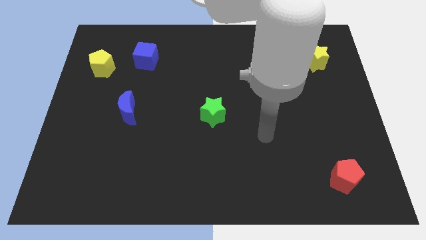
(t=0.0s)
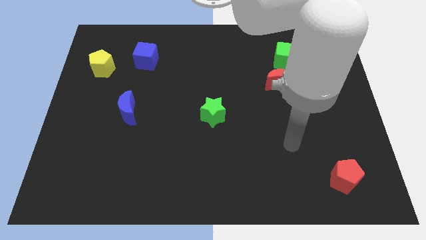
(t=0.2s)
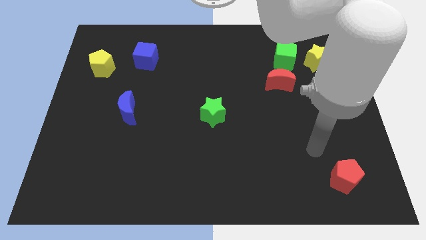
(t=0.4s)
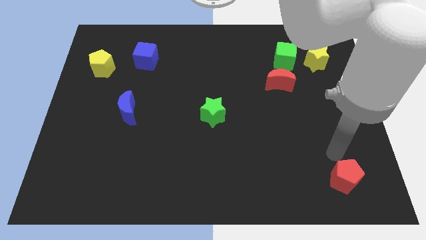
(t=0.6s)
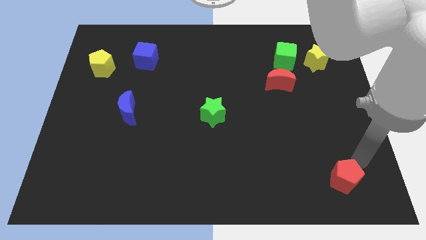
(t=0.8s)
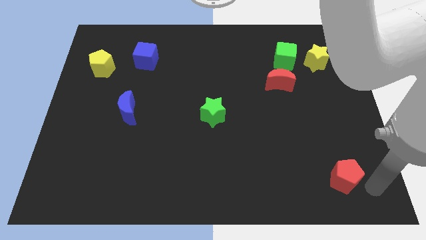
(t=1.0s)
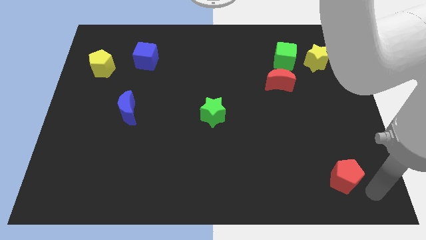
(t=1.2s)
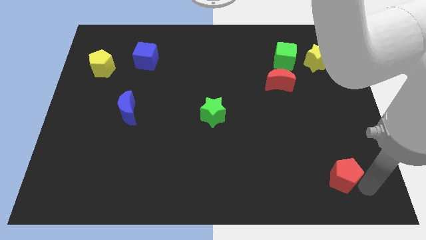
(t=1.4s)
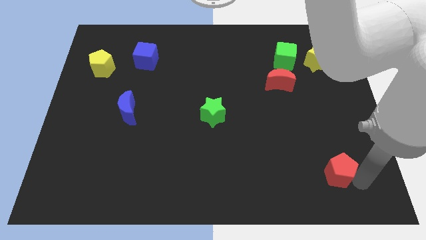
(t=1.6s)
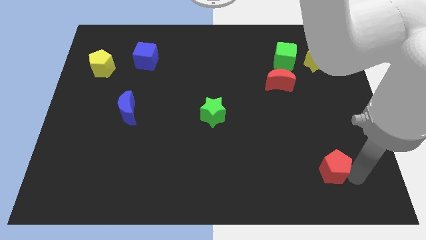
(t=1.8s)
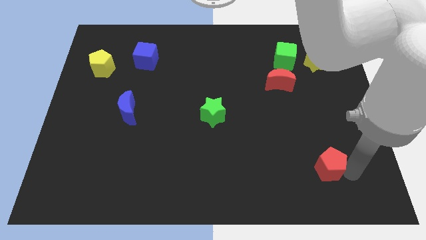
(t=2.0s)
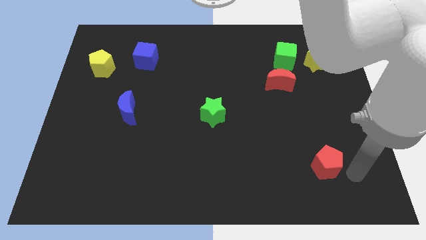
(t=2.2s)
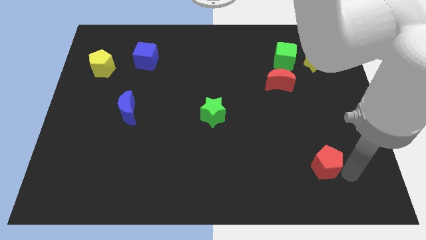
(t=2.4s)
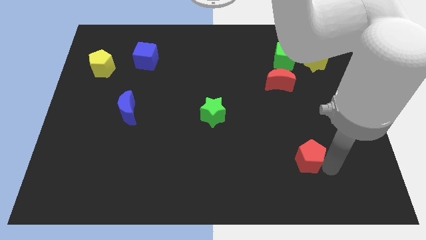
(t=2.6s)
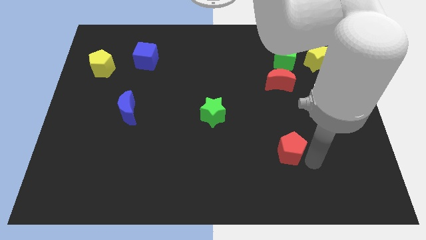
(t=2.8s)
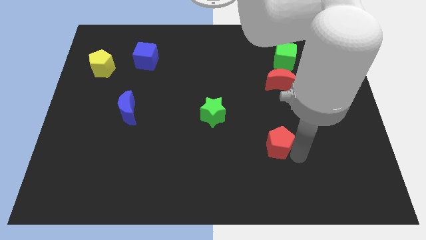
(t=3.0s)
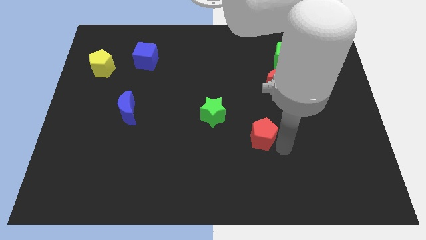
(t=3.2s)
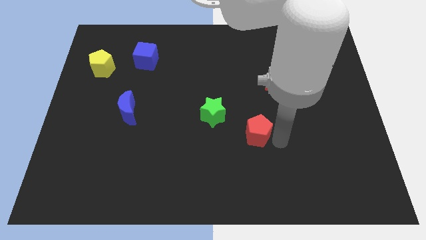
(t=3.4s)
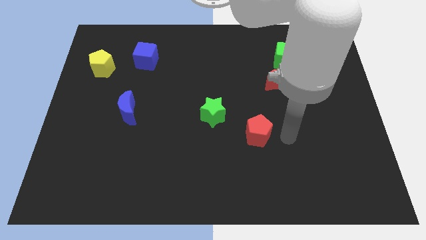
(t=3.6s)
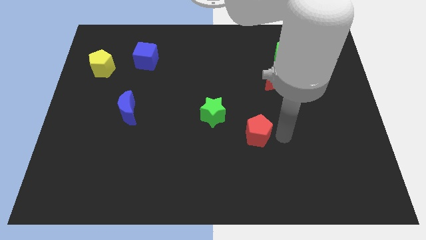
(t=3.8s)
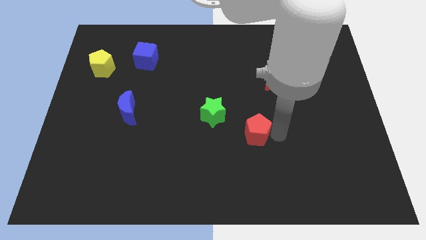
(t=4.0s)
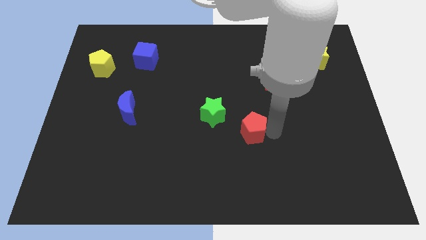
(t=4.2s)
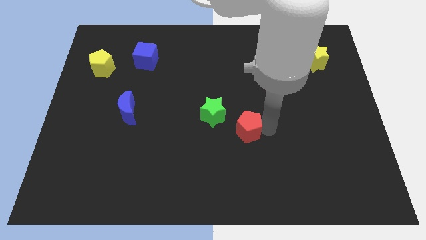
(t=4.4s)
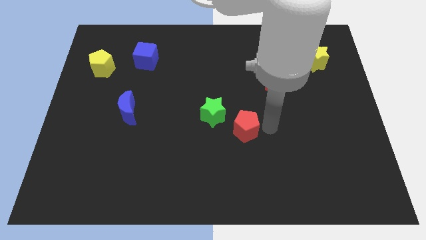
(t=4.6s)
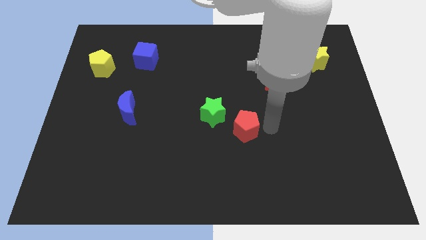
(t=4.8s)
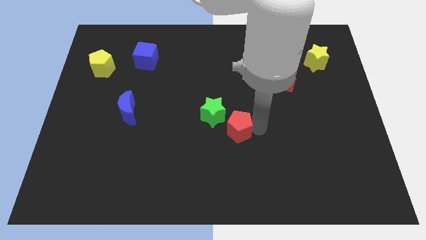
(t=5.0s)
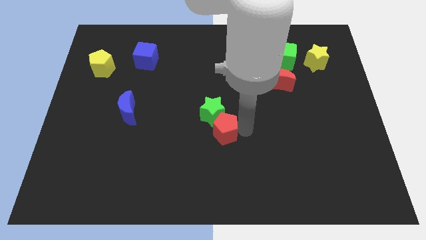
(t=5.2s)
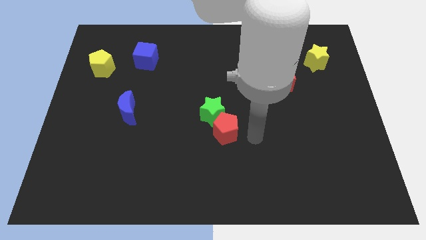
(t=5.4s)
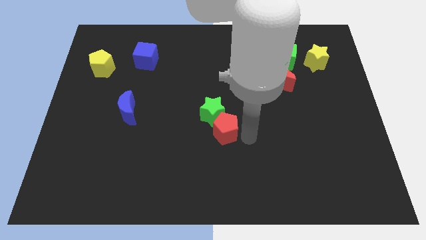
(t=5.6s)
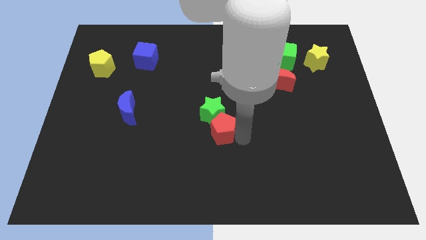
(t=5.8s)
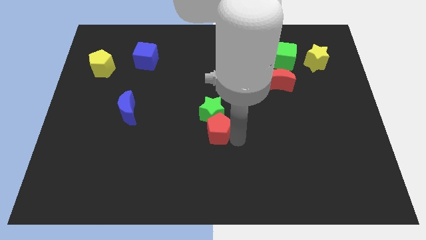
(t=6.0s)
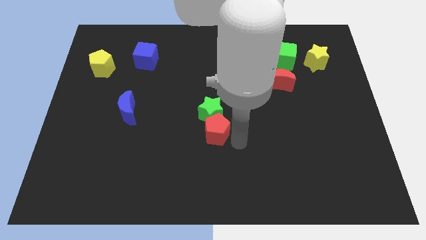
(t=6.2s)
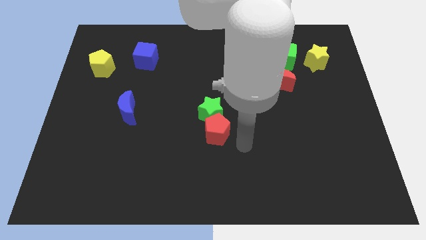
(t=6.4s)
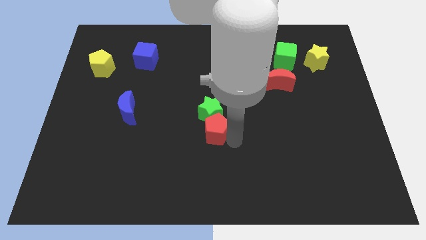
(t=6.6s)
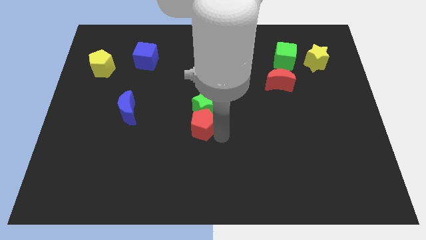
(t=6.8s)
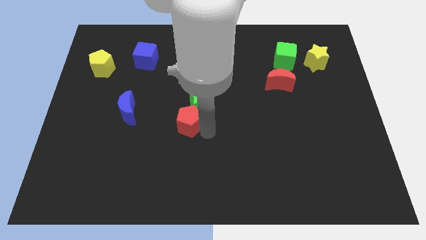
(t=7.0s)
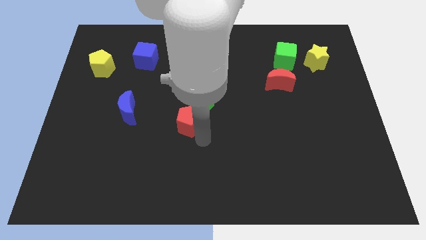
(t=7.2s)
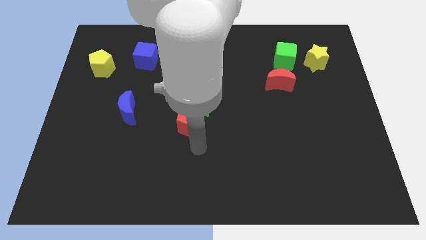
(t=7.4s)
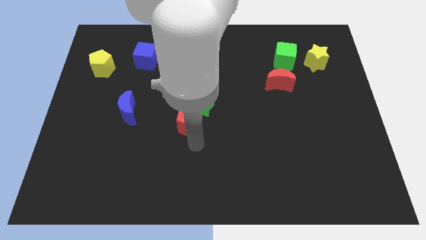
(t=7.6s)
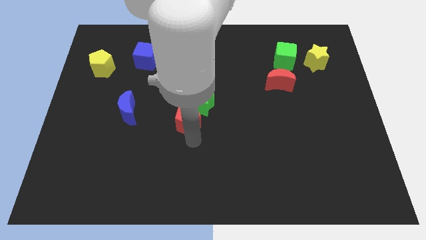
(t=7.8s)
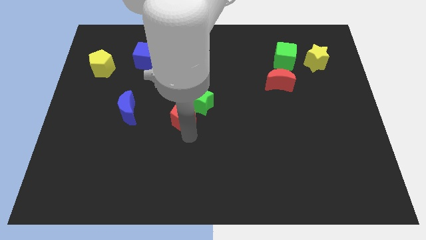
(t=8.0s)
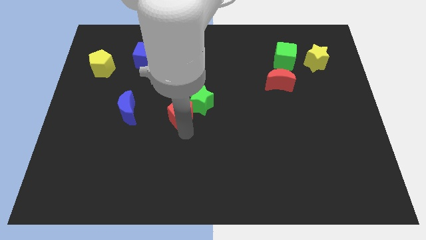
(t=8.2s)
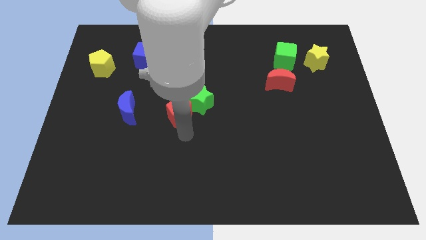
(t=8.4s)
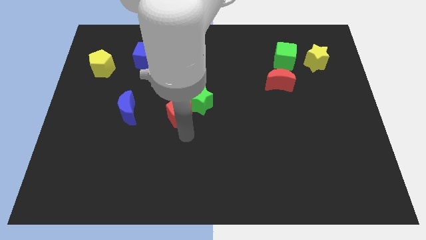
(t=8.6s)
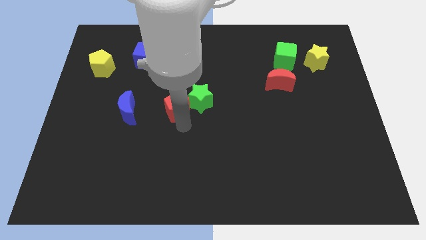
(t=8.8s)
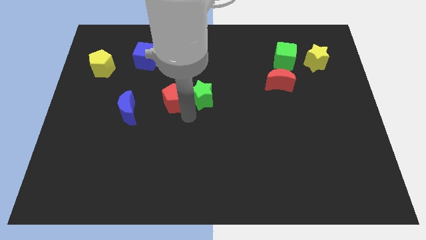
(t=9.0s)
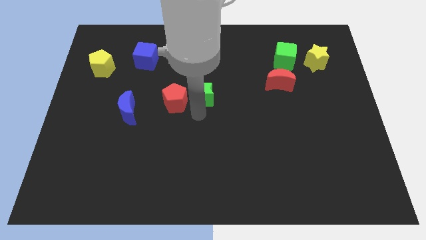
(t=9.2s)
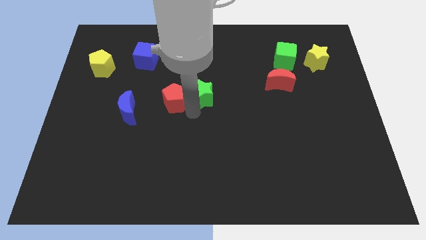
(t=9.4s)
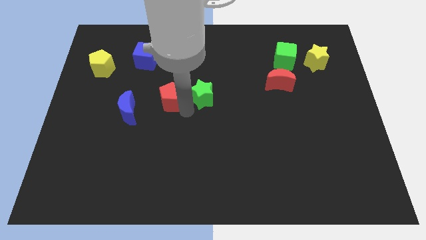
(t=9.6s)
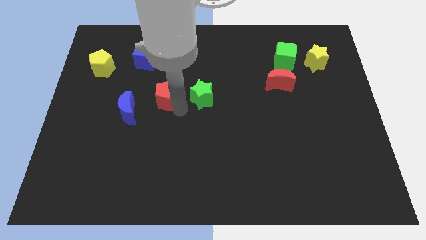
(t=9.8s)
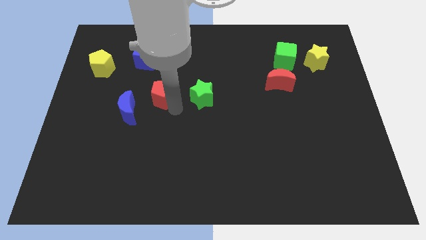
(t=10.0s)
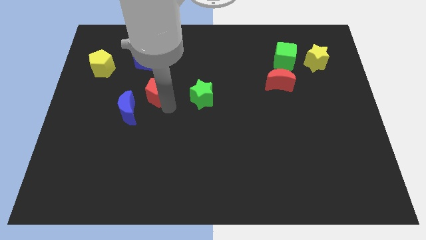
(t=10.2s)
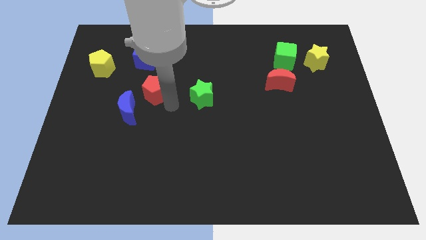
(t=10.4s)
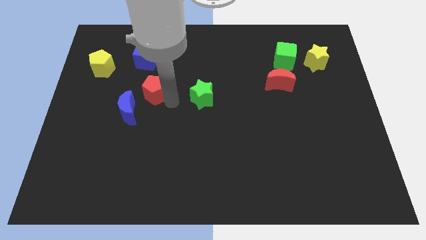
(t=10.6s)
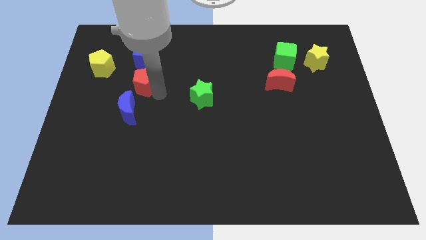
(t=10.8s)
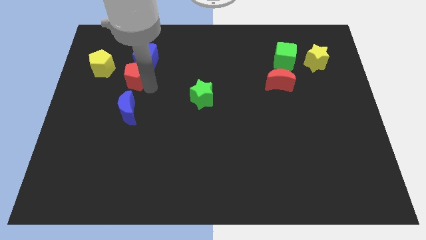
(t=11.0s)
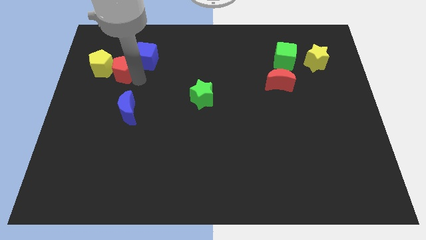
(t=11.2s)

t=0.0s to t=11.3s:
move the red pentagon close to the yellow pentagon

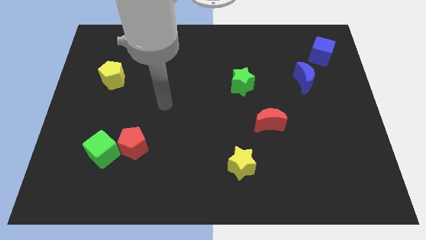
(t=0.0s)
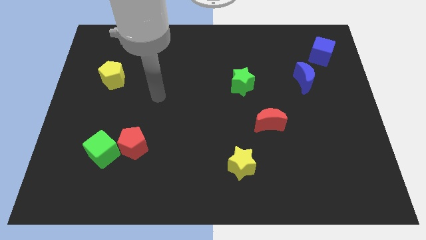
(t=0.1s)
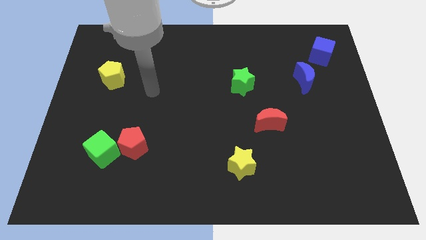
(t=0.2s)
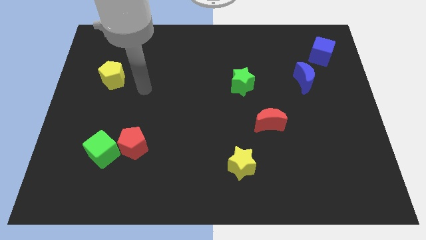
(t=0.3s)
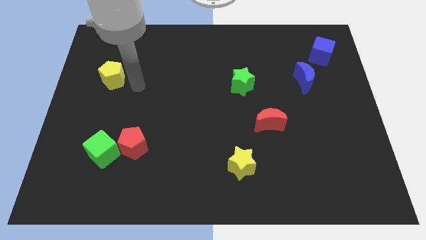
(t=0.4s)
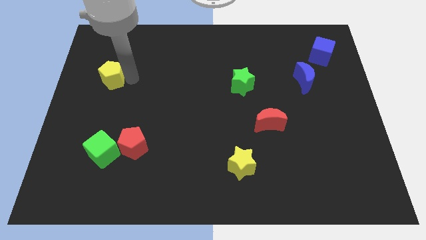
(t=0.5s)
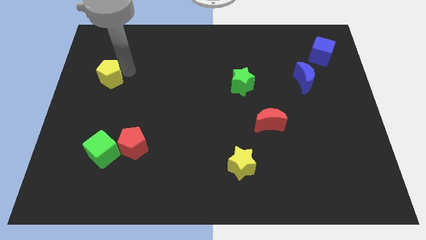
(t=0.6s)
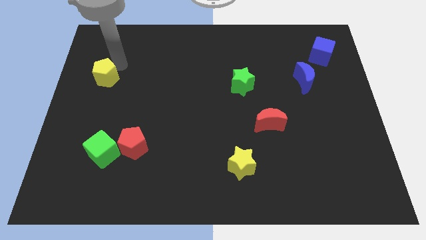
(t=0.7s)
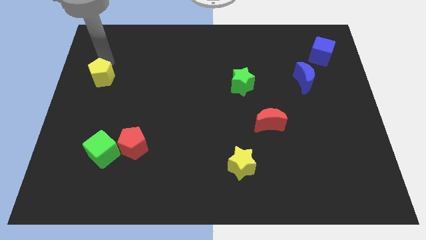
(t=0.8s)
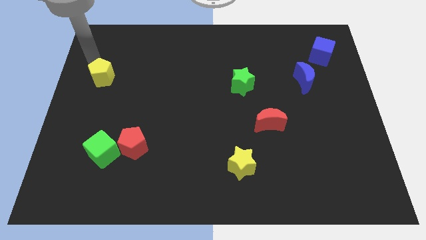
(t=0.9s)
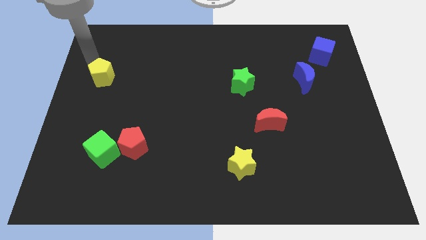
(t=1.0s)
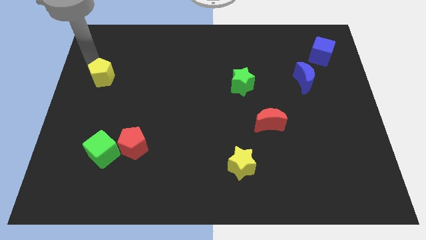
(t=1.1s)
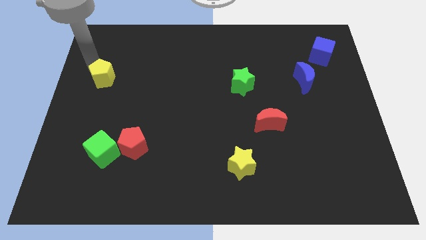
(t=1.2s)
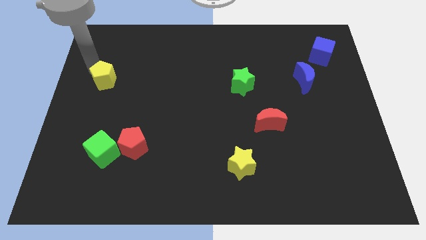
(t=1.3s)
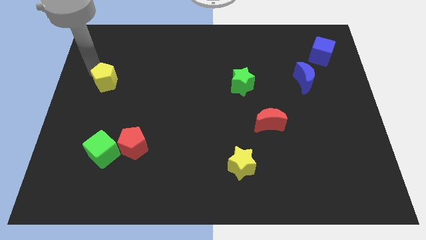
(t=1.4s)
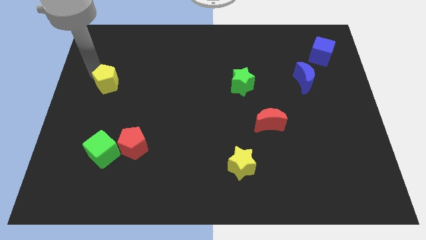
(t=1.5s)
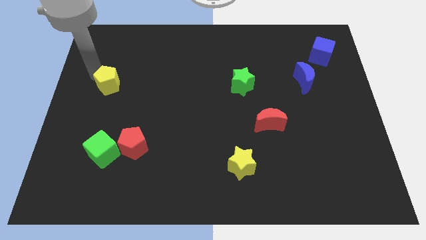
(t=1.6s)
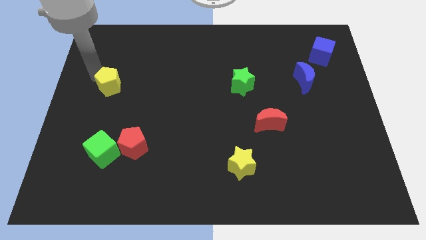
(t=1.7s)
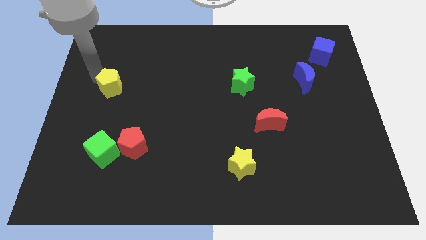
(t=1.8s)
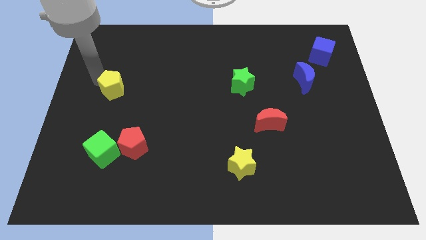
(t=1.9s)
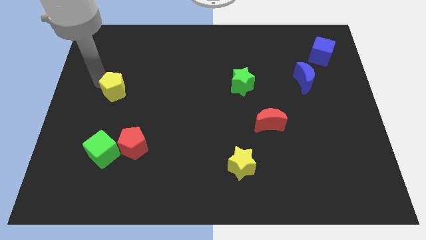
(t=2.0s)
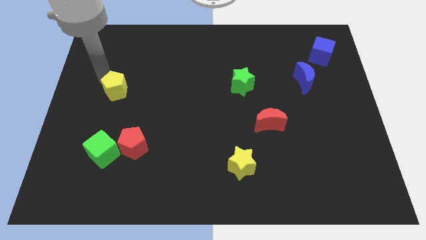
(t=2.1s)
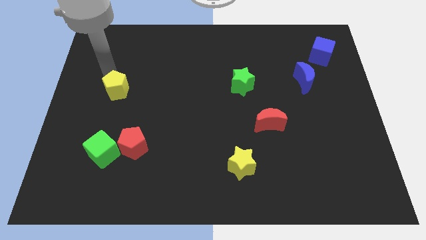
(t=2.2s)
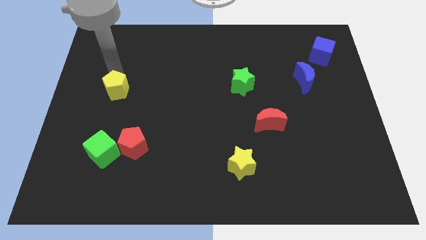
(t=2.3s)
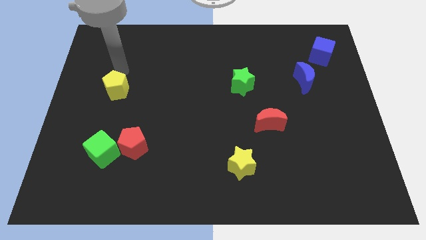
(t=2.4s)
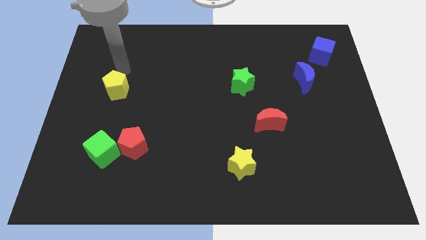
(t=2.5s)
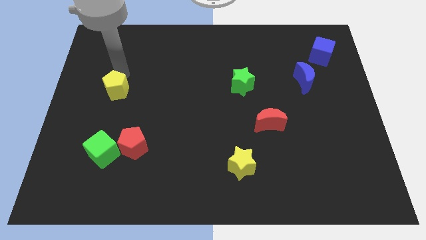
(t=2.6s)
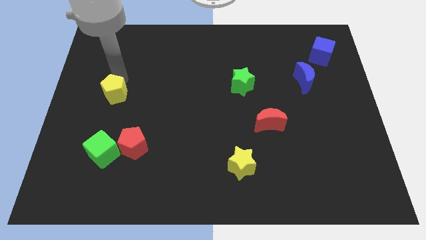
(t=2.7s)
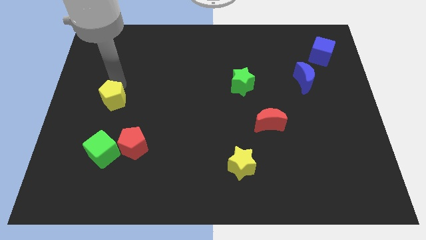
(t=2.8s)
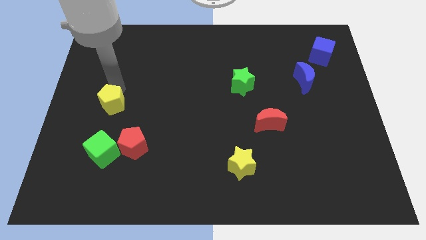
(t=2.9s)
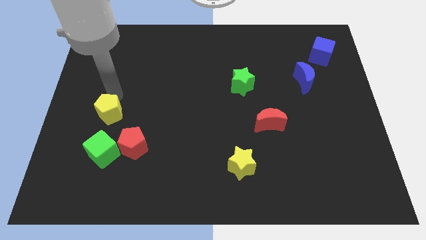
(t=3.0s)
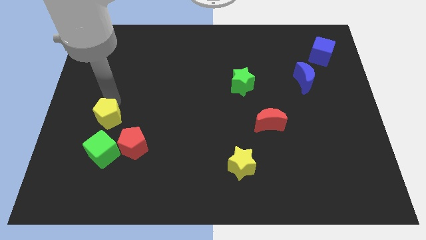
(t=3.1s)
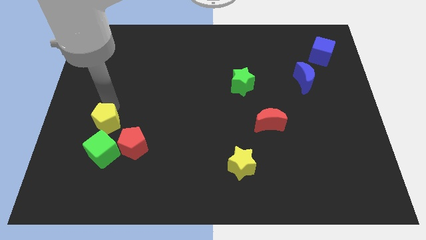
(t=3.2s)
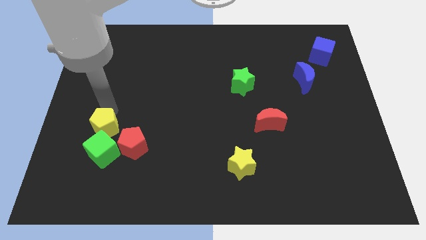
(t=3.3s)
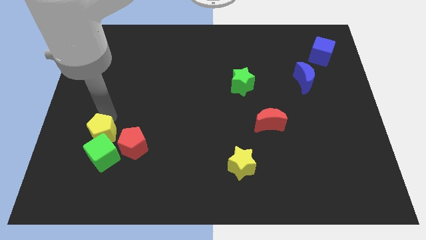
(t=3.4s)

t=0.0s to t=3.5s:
slide the yellow pentagon towards the green cube
